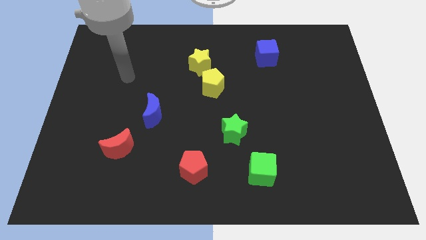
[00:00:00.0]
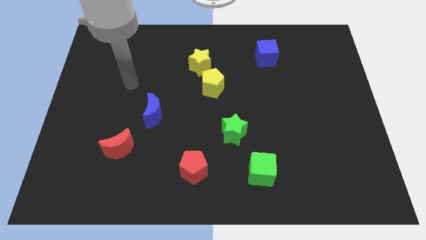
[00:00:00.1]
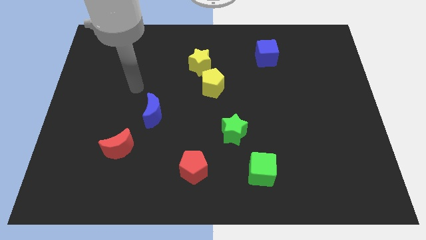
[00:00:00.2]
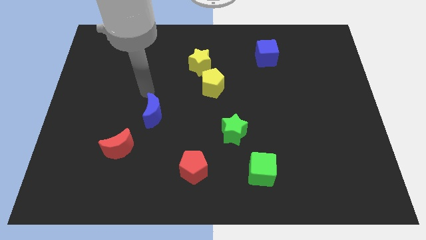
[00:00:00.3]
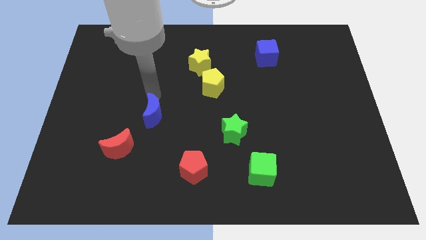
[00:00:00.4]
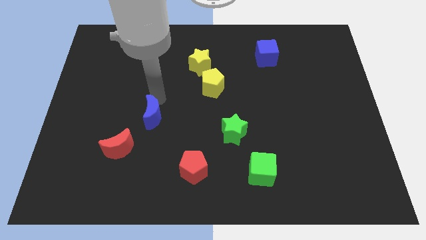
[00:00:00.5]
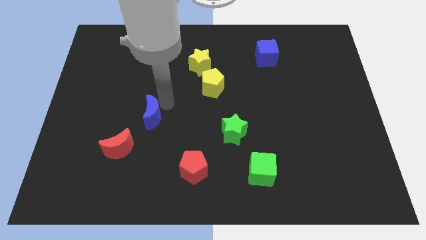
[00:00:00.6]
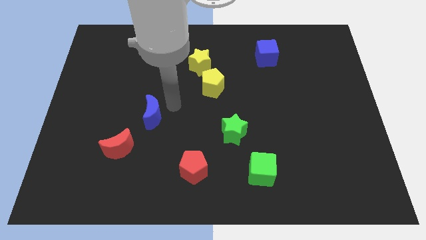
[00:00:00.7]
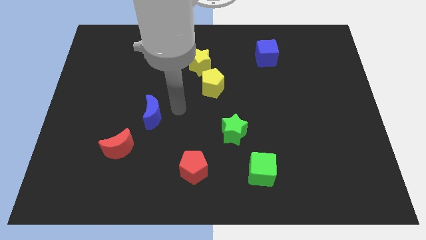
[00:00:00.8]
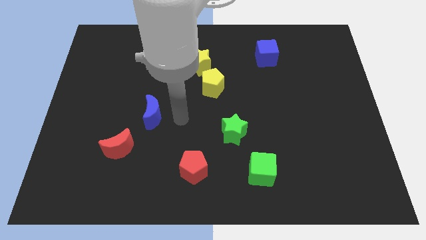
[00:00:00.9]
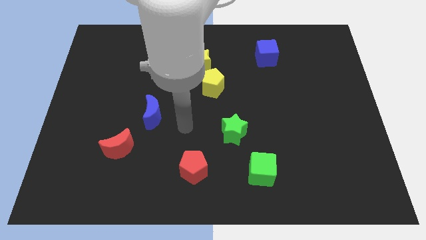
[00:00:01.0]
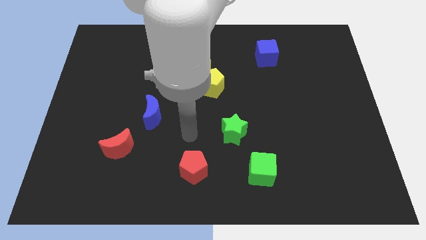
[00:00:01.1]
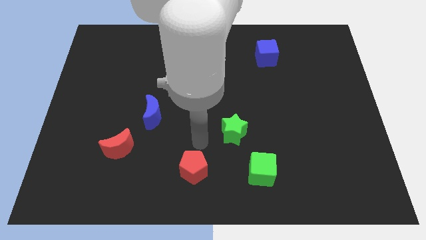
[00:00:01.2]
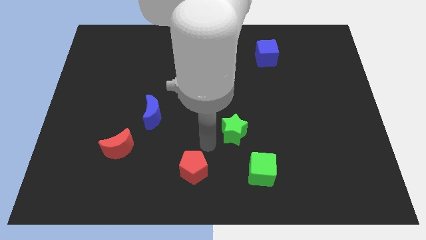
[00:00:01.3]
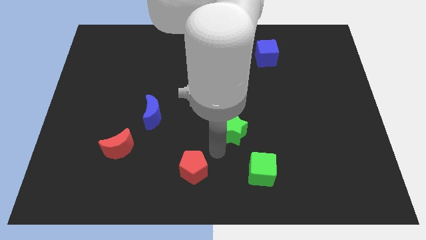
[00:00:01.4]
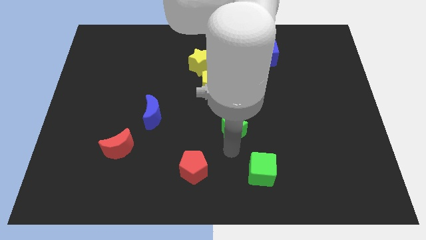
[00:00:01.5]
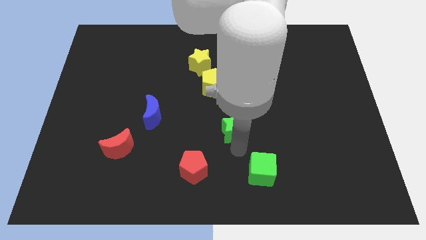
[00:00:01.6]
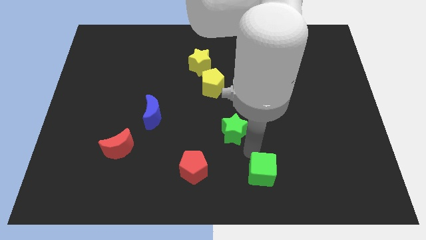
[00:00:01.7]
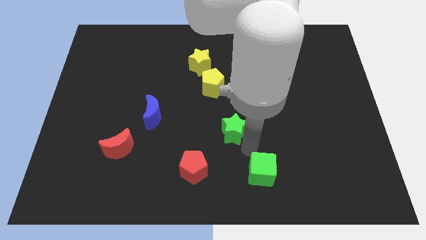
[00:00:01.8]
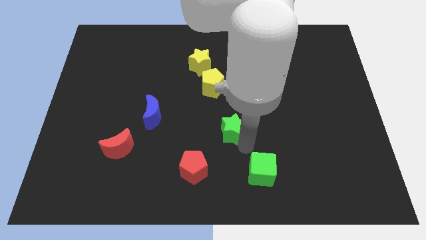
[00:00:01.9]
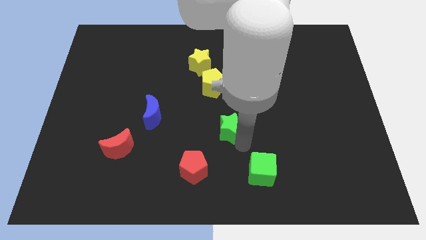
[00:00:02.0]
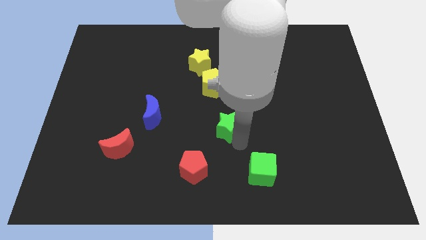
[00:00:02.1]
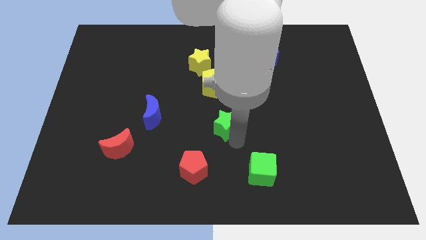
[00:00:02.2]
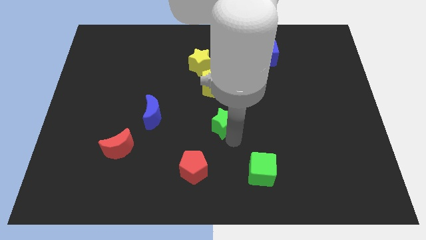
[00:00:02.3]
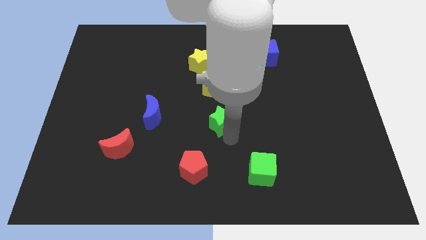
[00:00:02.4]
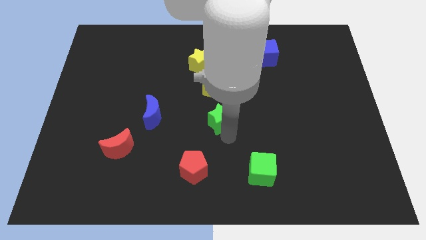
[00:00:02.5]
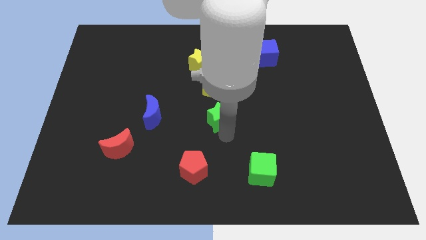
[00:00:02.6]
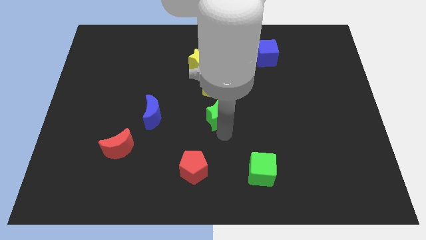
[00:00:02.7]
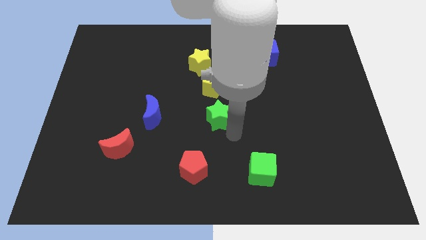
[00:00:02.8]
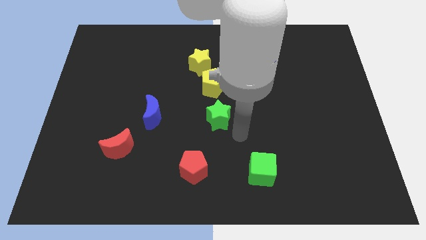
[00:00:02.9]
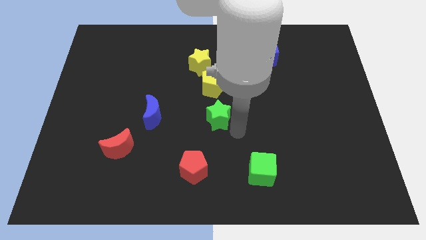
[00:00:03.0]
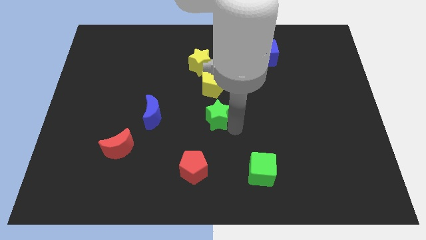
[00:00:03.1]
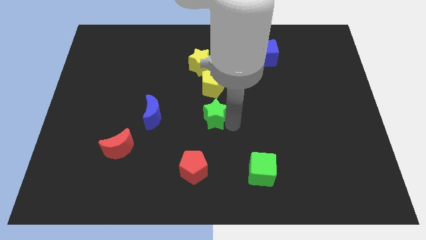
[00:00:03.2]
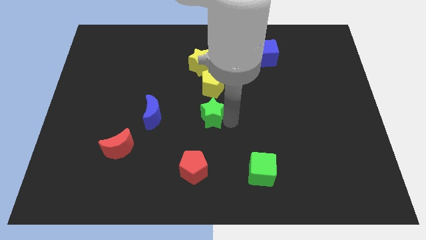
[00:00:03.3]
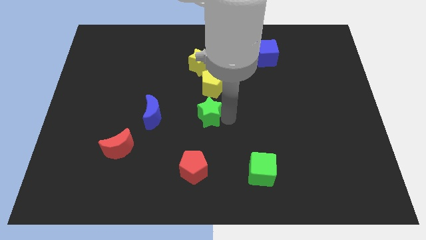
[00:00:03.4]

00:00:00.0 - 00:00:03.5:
move the green star a little up and then to the left
